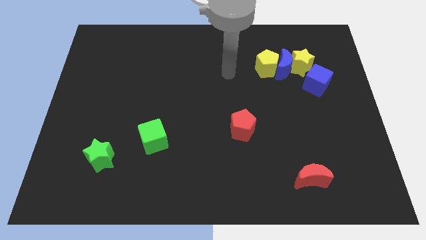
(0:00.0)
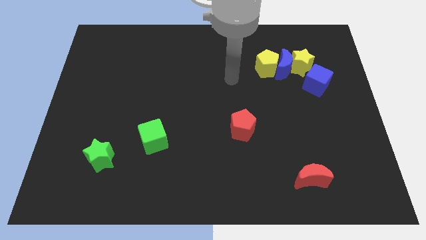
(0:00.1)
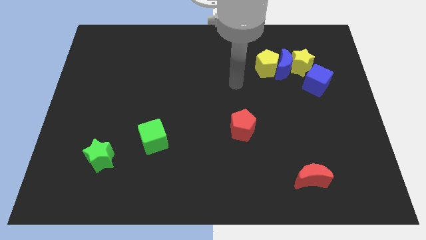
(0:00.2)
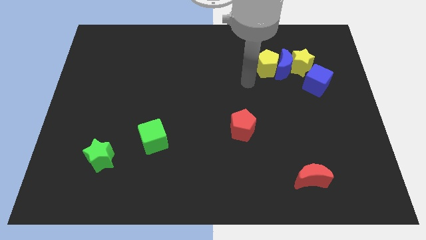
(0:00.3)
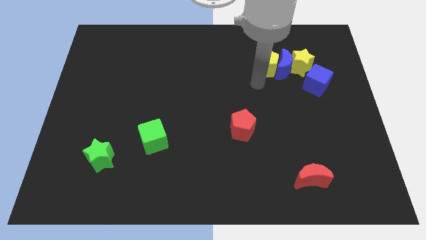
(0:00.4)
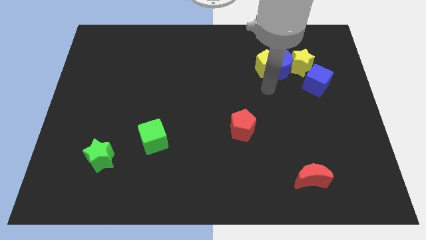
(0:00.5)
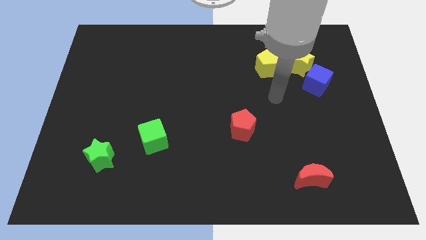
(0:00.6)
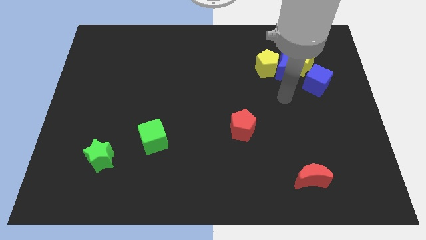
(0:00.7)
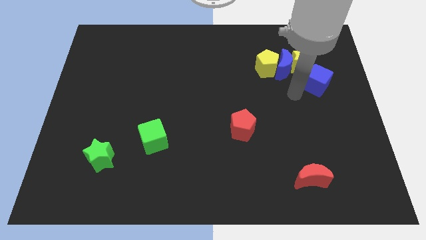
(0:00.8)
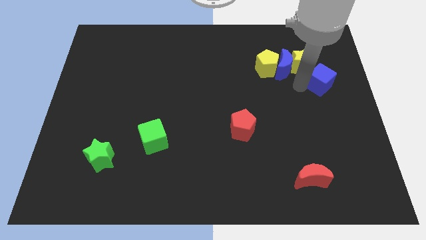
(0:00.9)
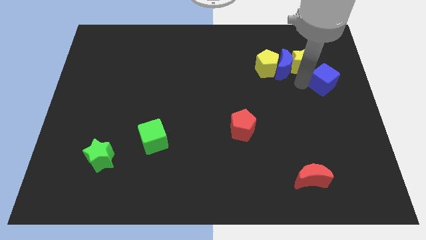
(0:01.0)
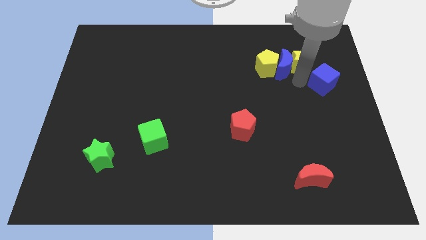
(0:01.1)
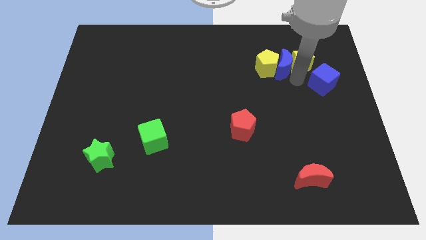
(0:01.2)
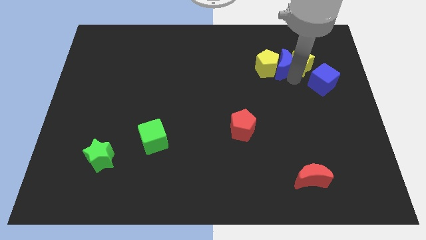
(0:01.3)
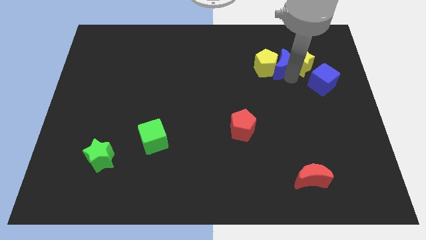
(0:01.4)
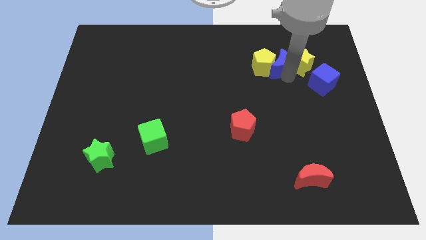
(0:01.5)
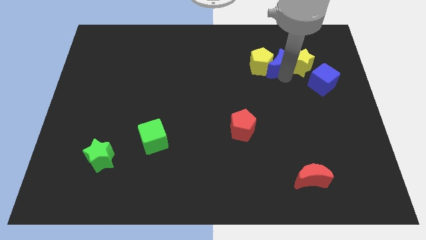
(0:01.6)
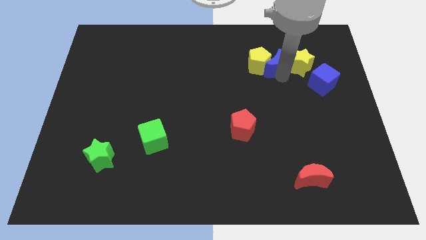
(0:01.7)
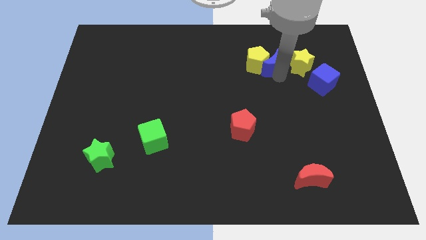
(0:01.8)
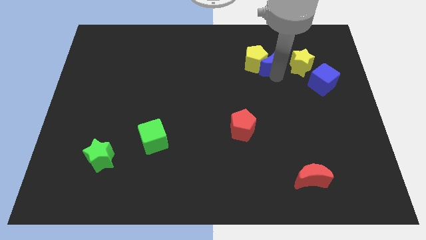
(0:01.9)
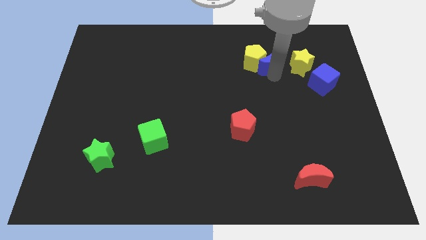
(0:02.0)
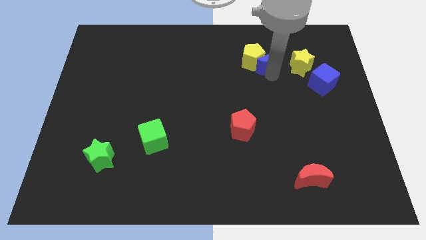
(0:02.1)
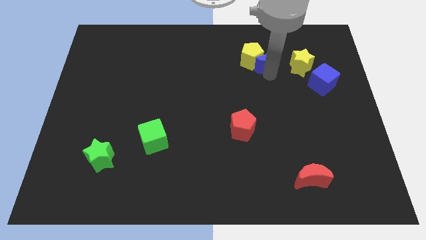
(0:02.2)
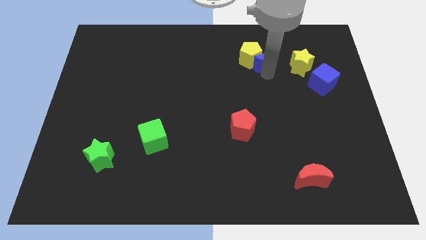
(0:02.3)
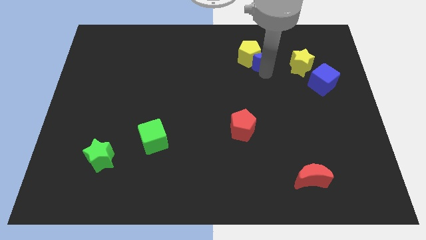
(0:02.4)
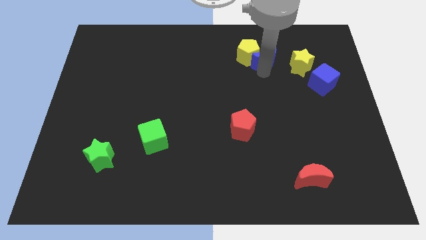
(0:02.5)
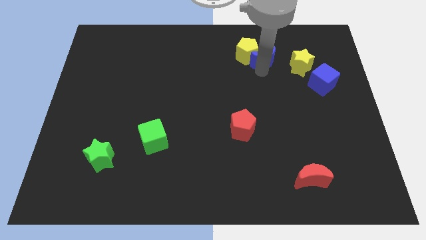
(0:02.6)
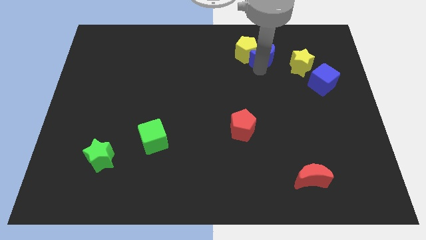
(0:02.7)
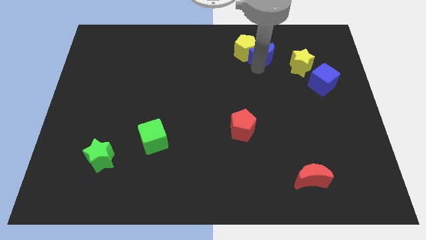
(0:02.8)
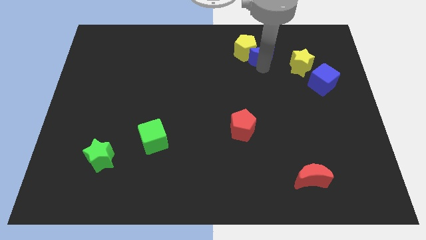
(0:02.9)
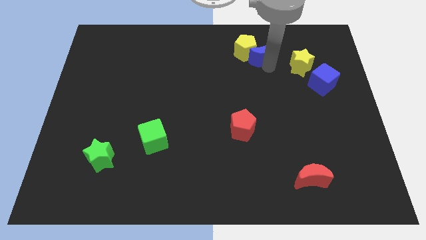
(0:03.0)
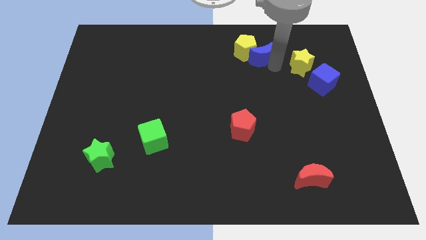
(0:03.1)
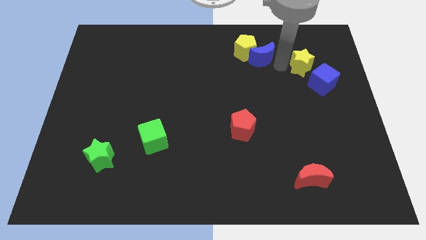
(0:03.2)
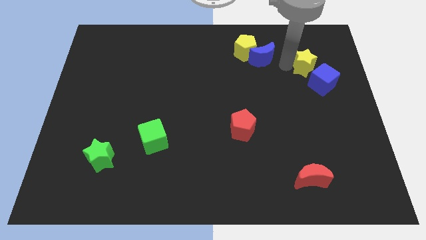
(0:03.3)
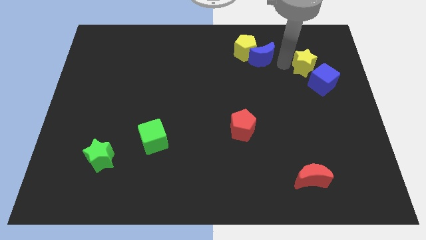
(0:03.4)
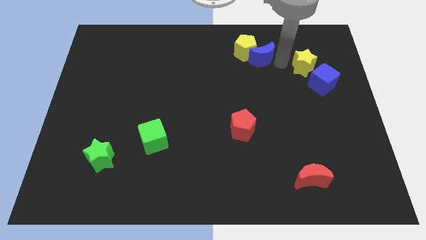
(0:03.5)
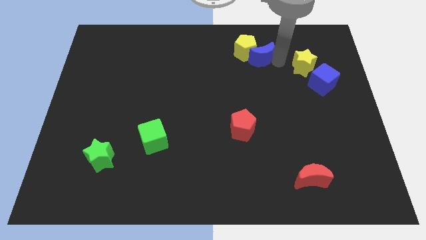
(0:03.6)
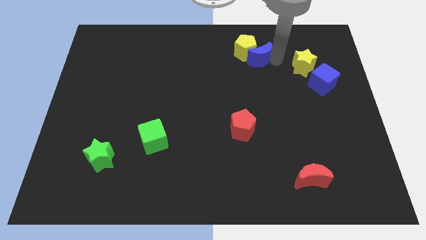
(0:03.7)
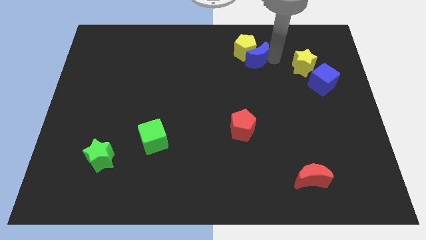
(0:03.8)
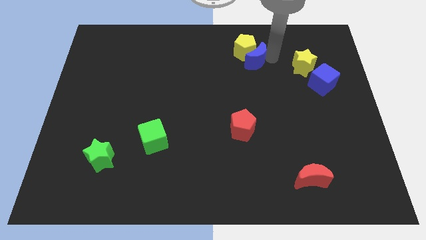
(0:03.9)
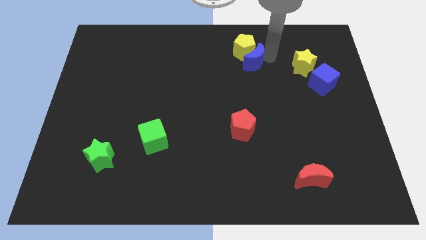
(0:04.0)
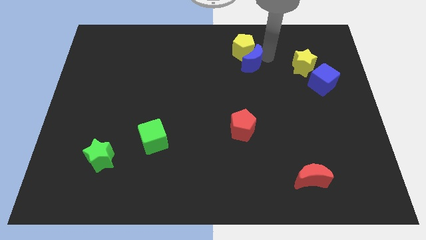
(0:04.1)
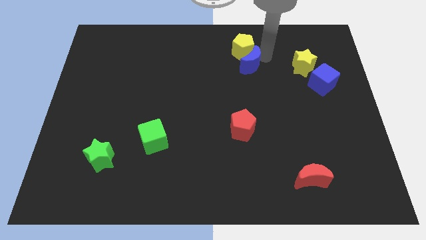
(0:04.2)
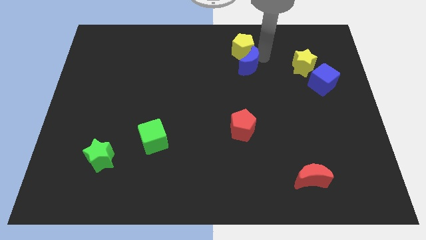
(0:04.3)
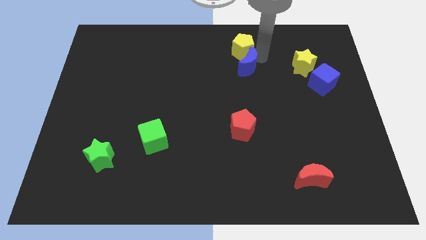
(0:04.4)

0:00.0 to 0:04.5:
pull the blue moon apart from the group

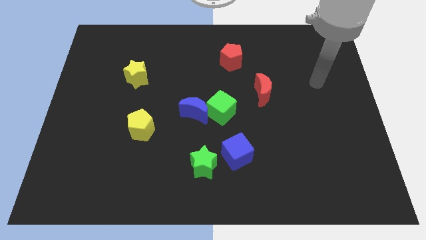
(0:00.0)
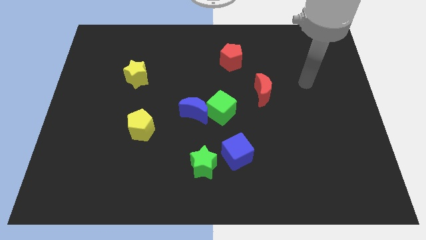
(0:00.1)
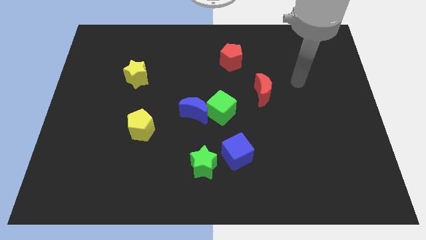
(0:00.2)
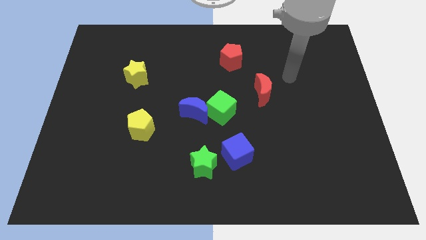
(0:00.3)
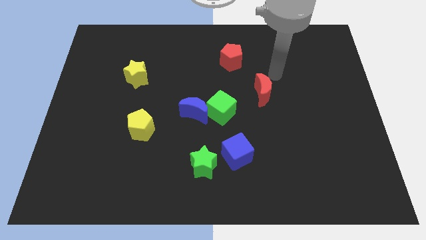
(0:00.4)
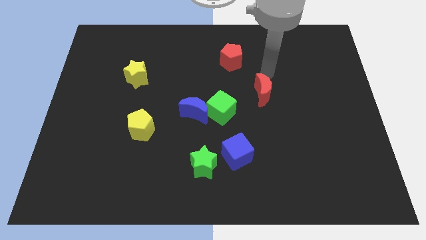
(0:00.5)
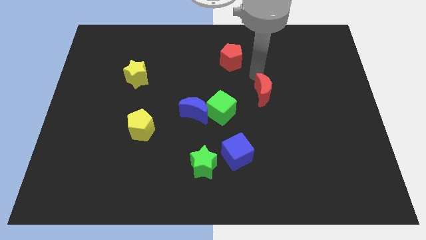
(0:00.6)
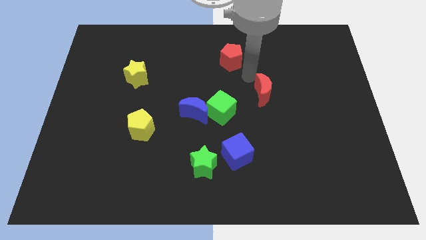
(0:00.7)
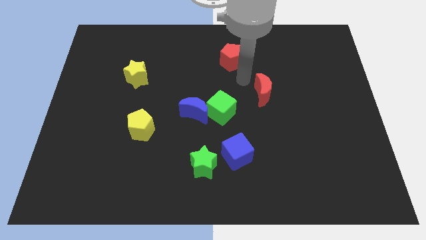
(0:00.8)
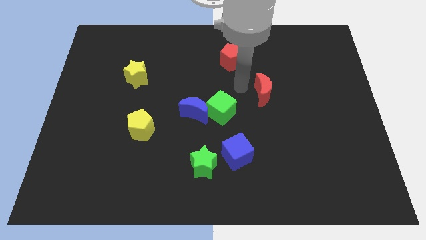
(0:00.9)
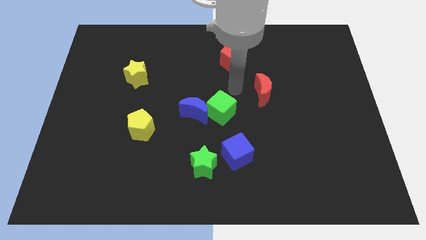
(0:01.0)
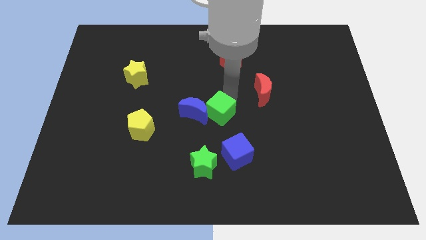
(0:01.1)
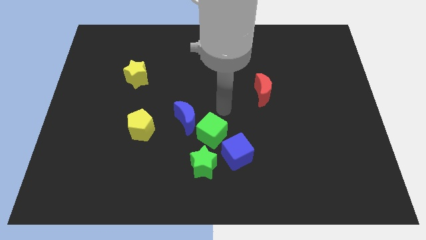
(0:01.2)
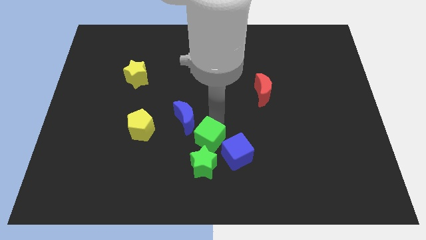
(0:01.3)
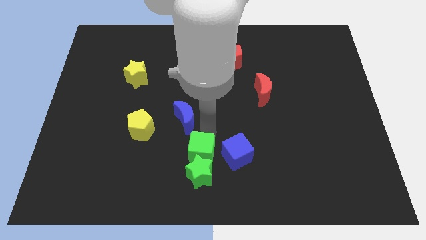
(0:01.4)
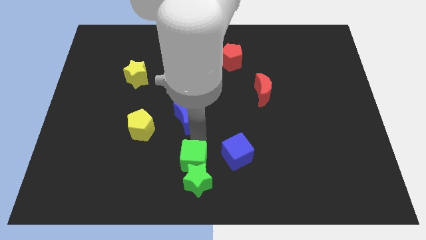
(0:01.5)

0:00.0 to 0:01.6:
move the blue moon away from the green cube

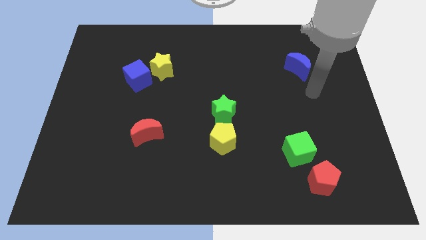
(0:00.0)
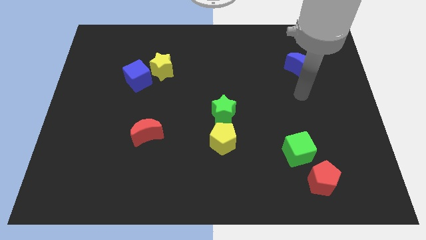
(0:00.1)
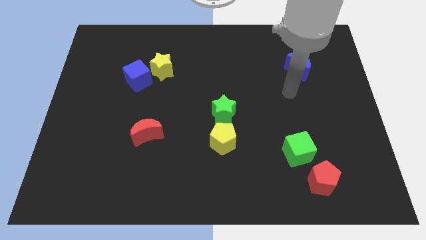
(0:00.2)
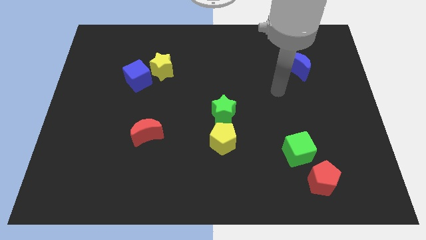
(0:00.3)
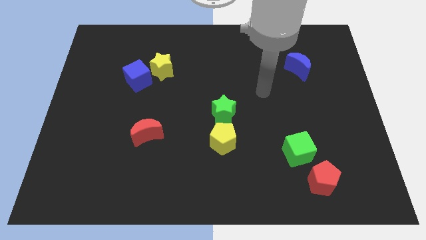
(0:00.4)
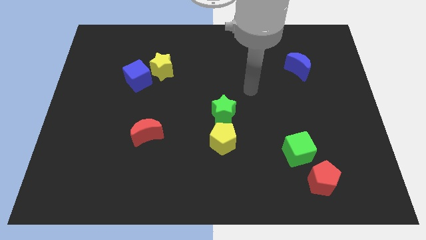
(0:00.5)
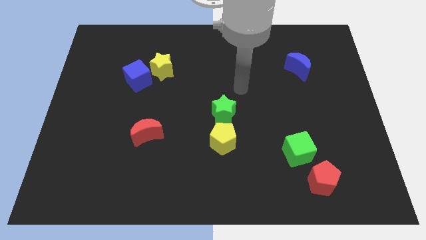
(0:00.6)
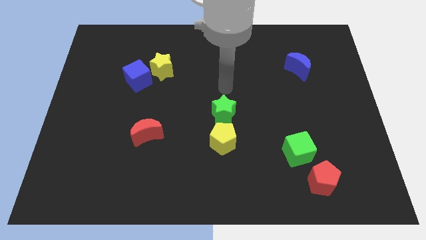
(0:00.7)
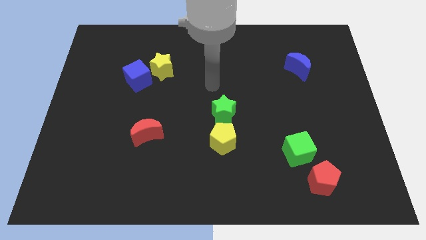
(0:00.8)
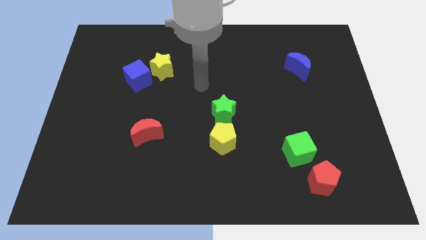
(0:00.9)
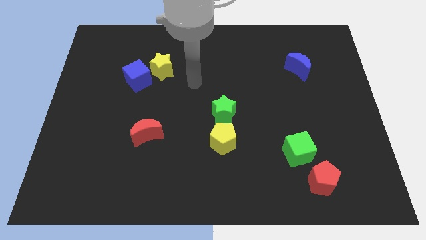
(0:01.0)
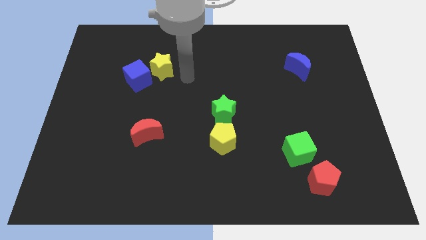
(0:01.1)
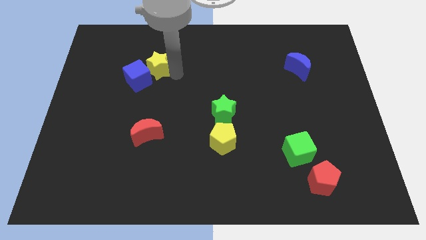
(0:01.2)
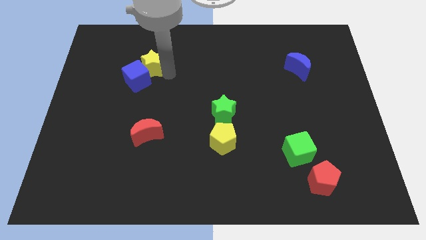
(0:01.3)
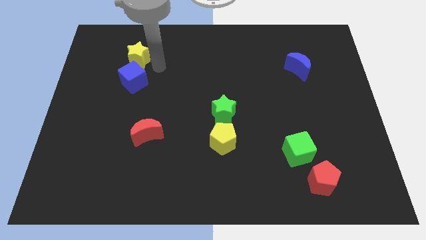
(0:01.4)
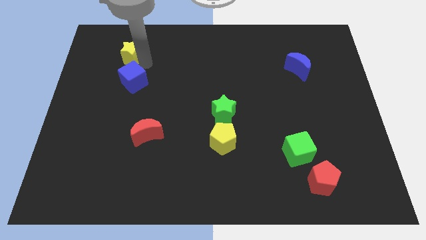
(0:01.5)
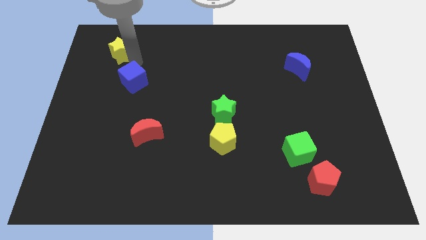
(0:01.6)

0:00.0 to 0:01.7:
pull the blue cube apart from the yellow star

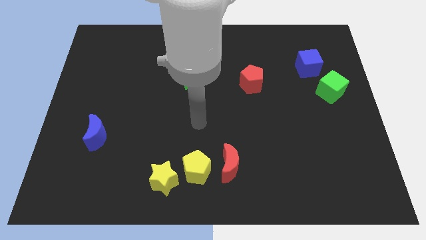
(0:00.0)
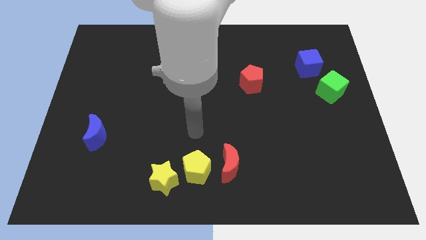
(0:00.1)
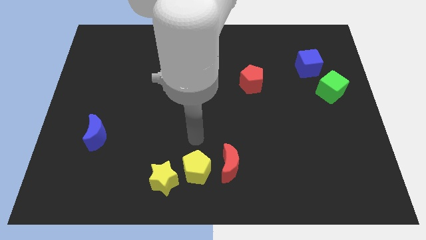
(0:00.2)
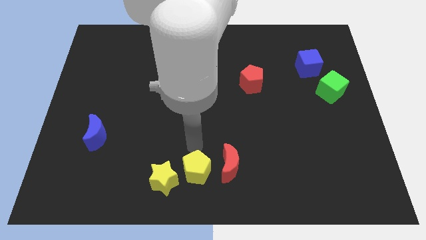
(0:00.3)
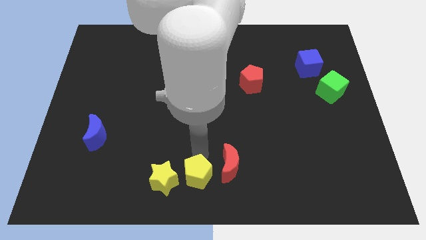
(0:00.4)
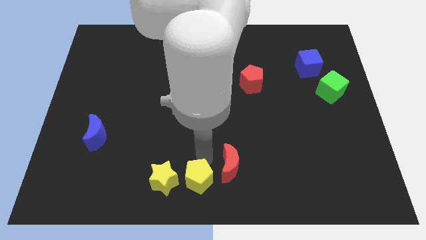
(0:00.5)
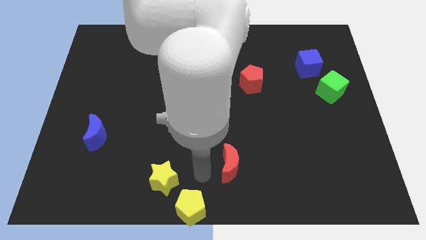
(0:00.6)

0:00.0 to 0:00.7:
separate the red moon from the yellow pentagon

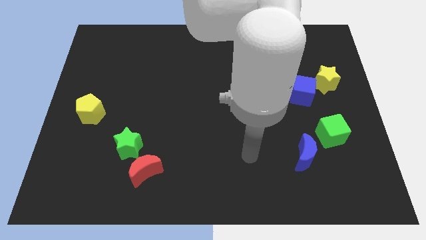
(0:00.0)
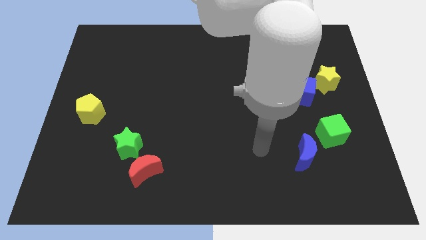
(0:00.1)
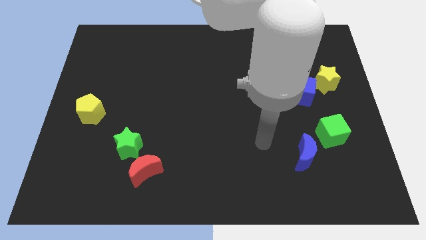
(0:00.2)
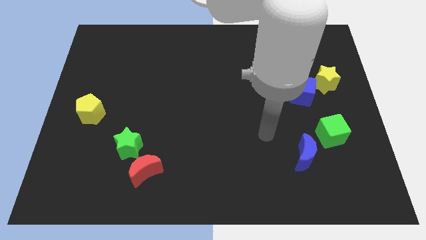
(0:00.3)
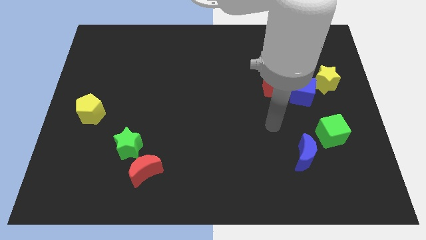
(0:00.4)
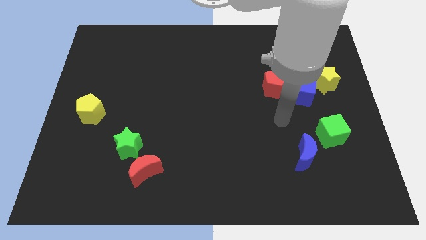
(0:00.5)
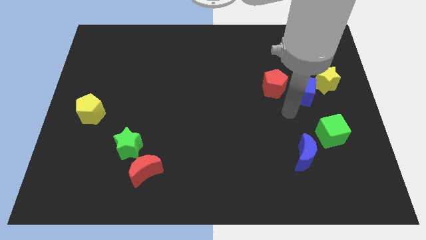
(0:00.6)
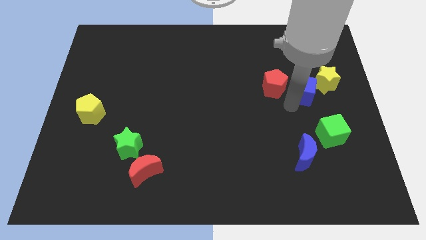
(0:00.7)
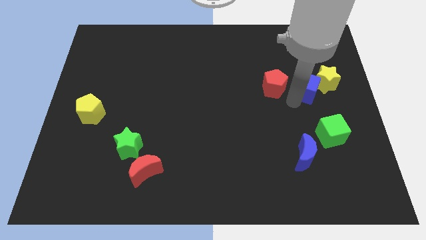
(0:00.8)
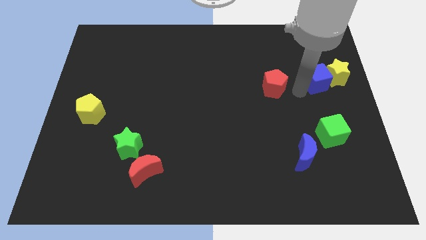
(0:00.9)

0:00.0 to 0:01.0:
separate the red pentagon from the blue cube
